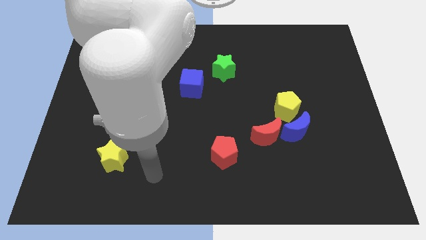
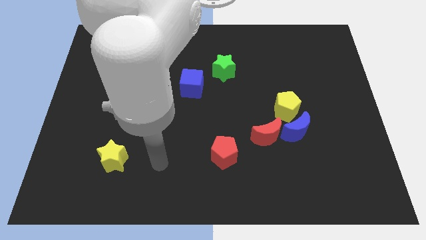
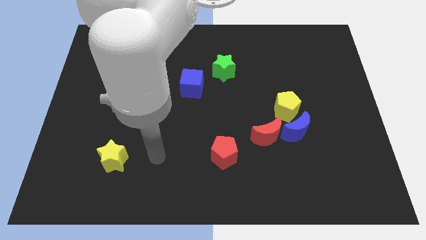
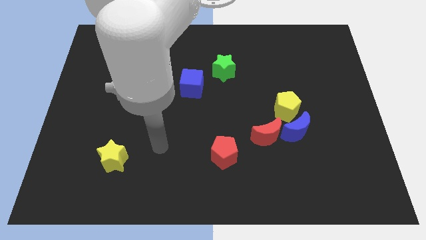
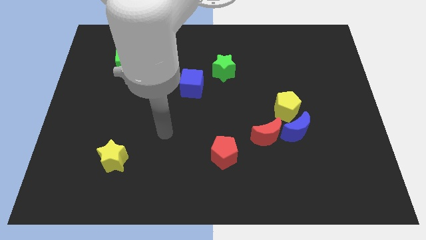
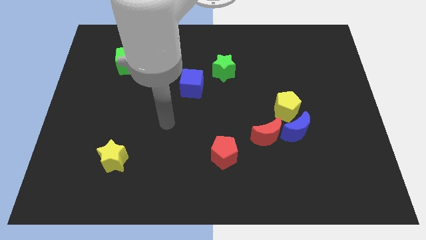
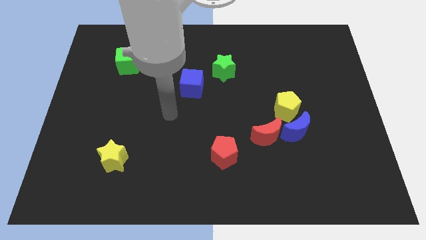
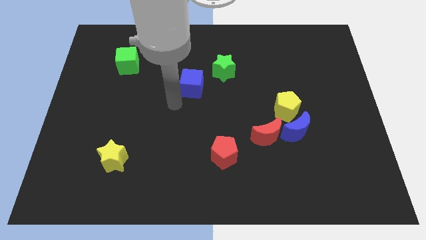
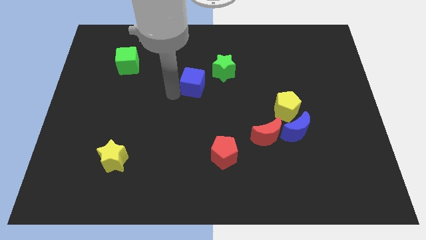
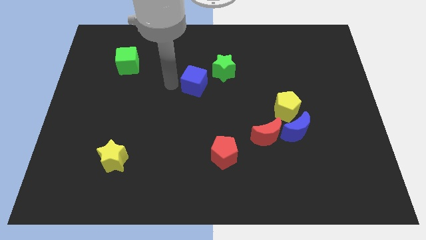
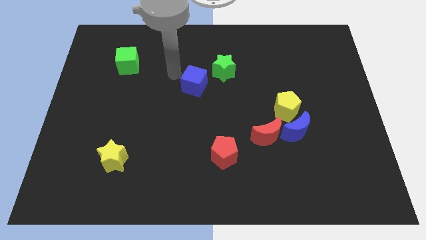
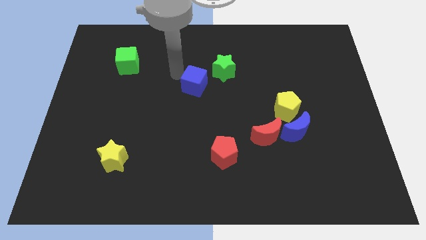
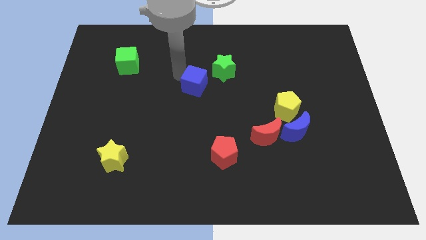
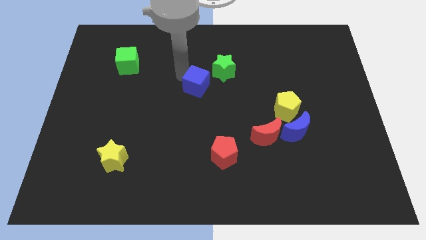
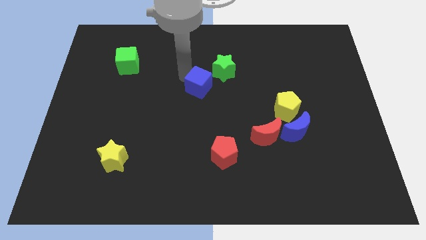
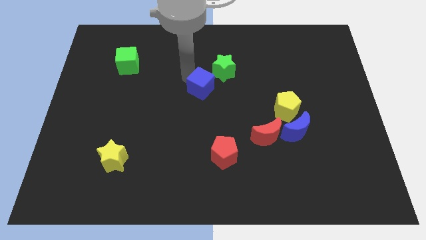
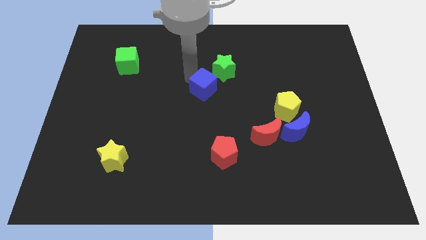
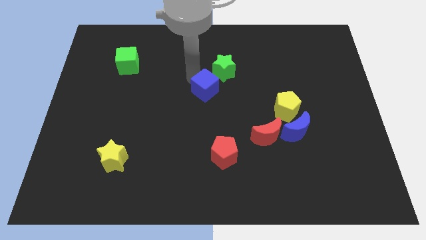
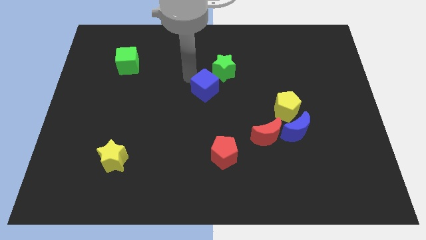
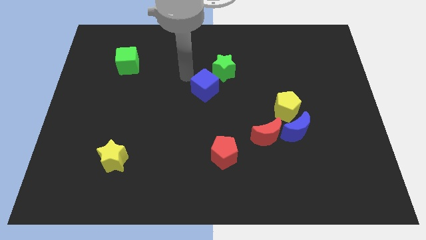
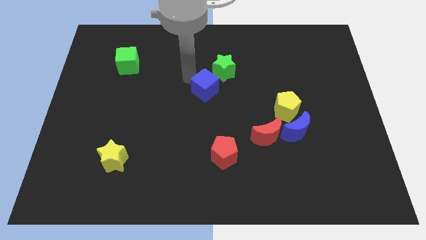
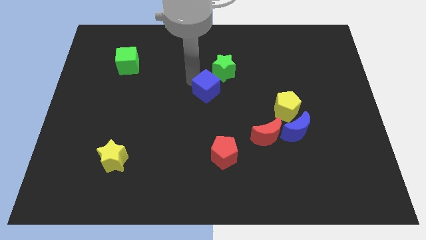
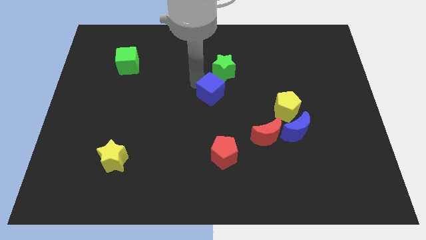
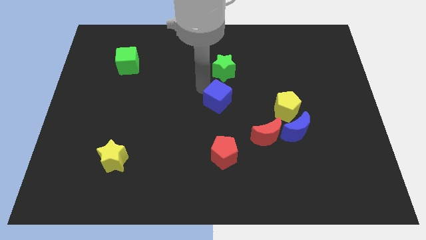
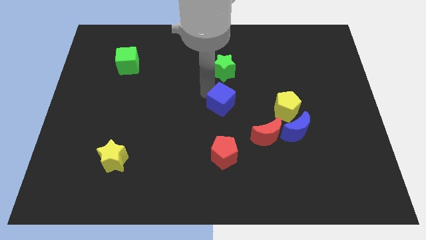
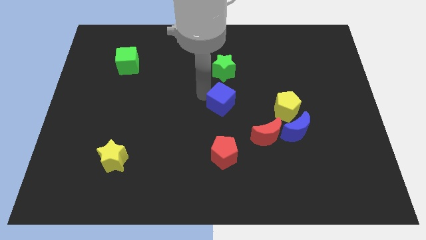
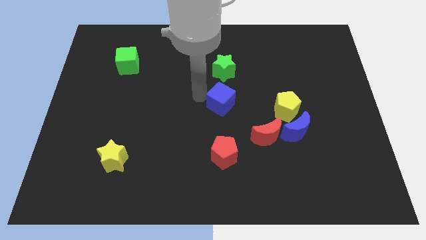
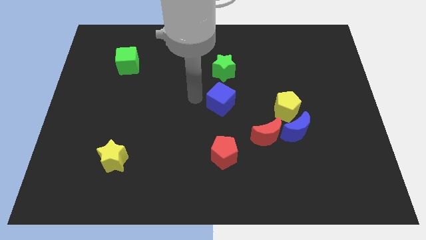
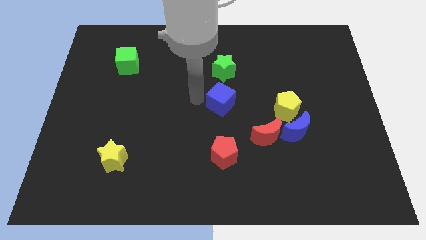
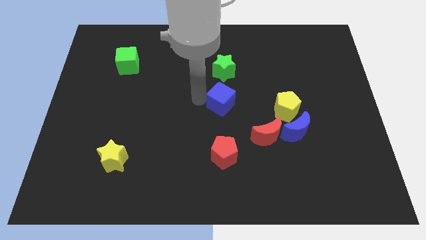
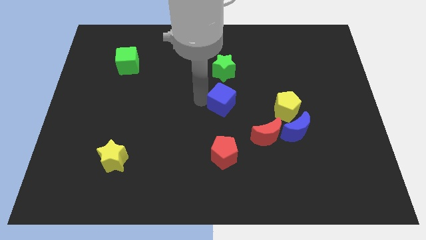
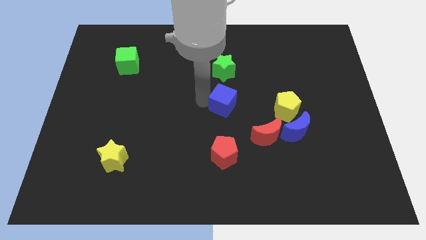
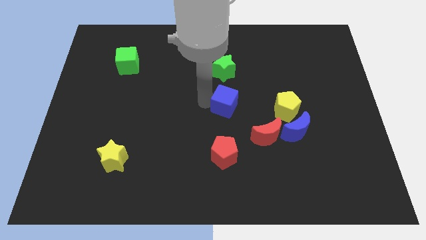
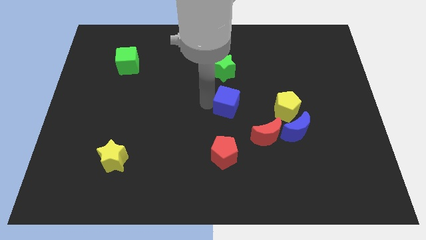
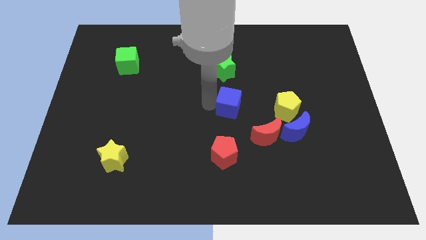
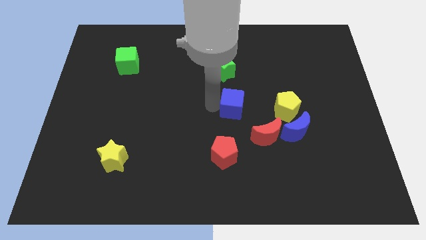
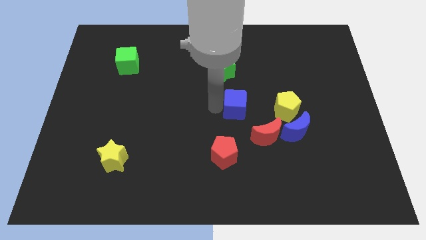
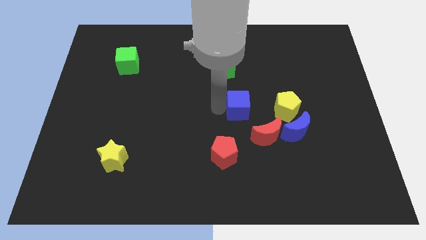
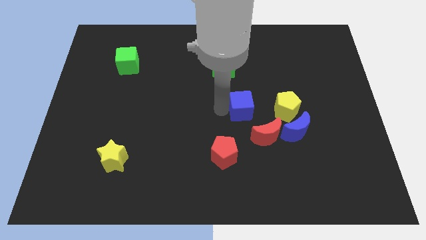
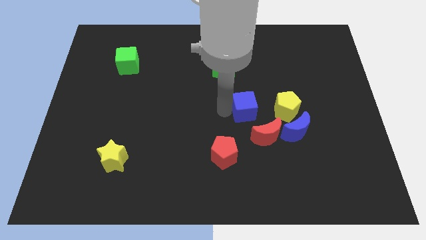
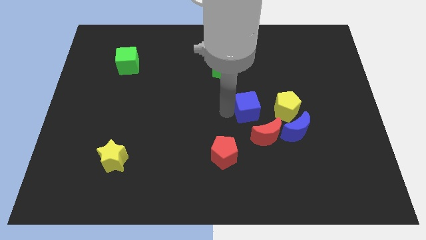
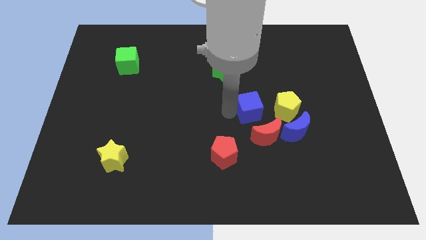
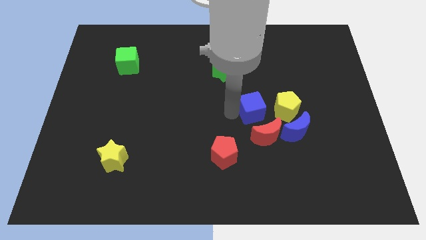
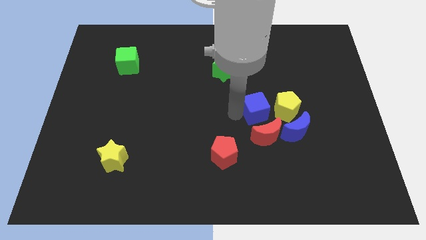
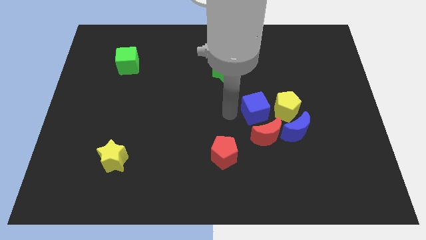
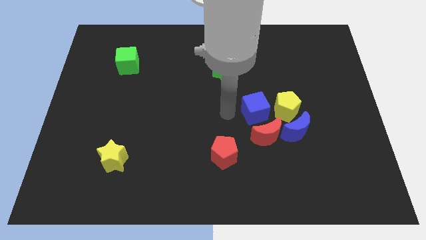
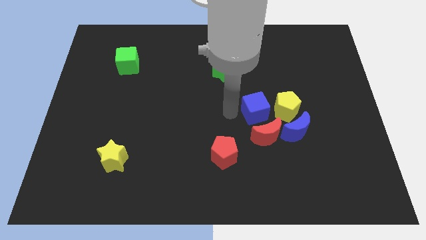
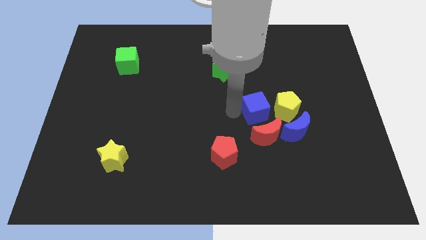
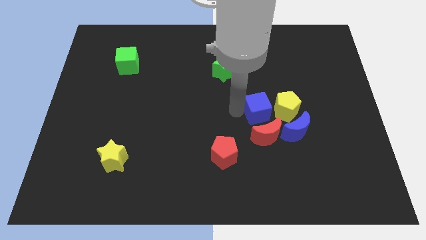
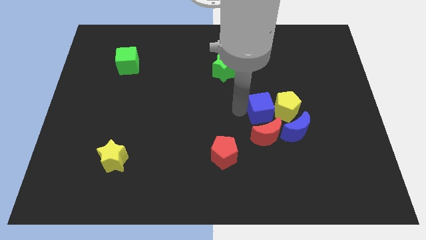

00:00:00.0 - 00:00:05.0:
put the blue cube close to the yellow pentagon

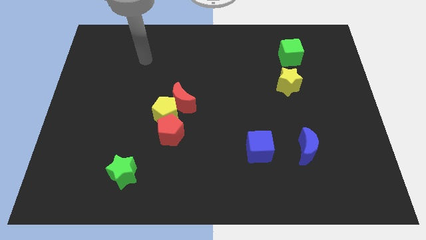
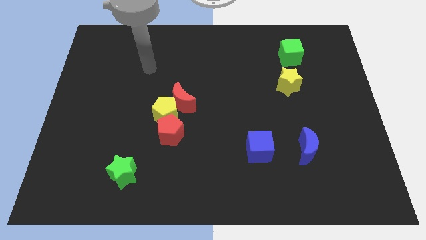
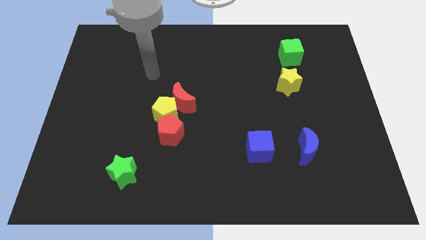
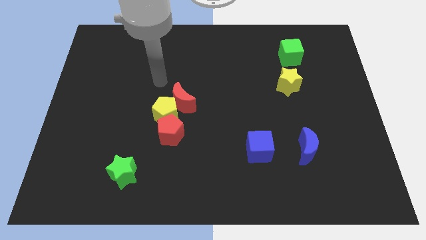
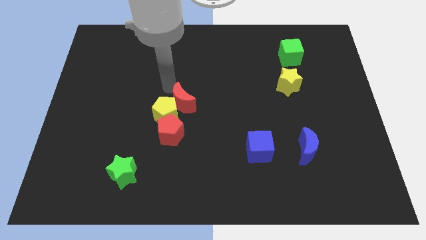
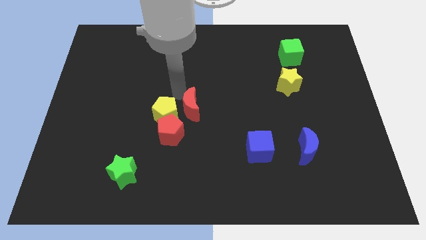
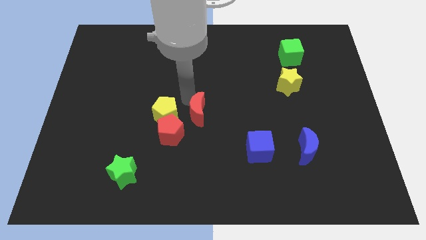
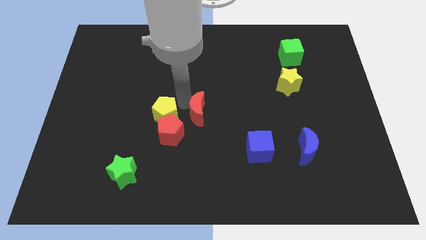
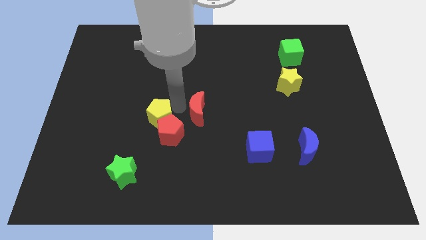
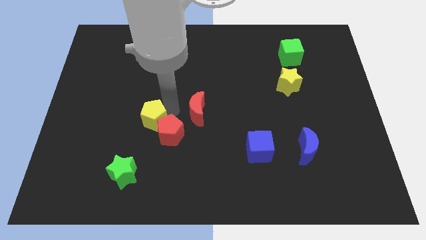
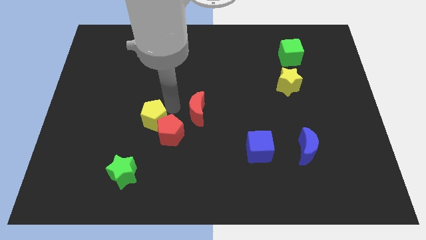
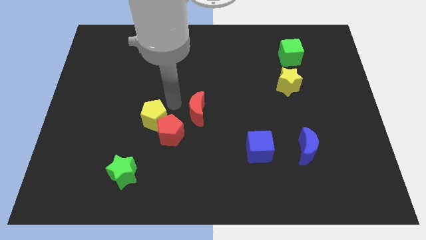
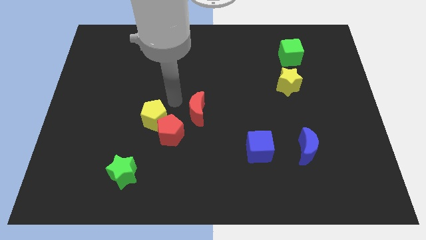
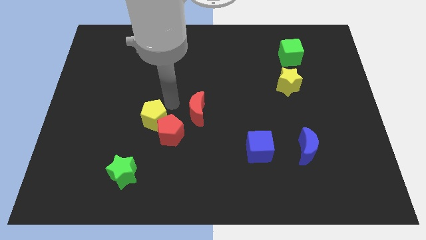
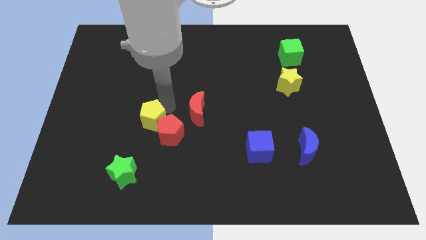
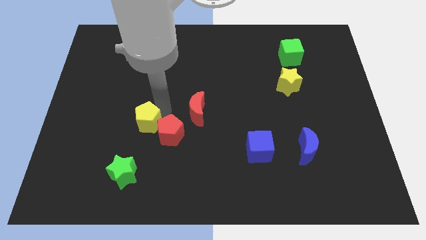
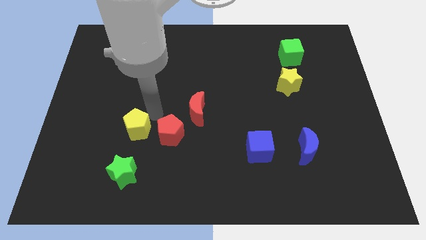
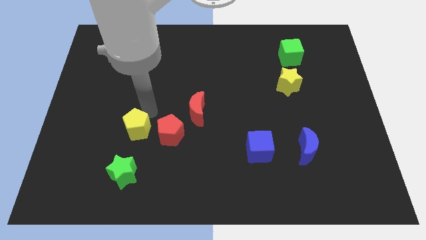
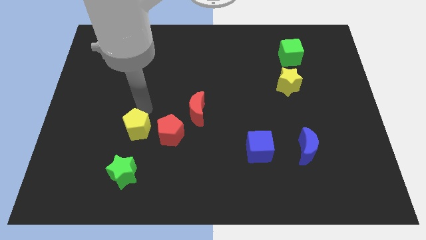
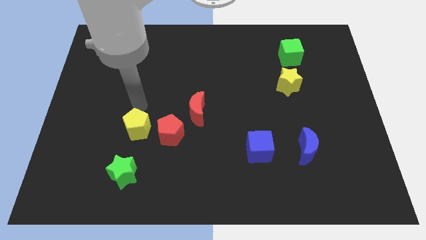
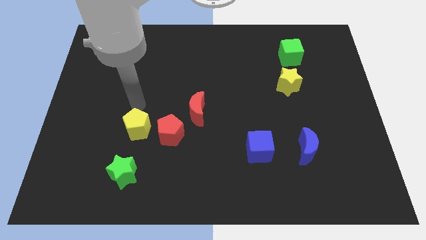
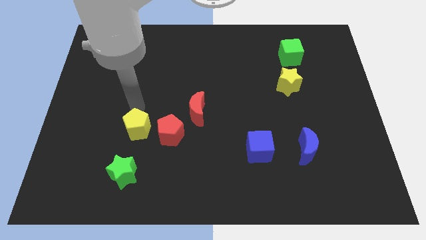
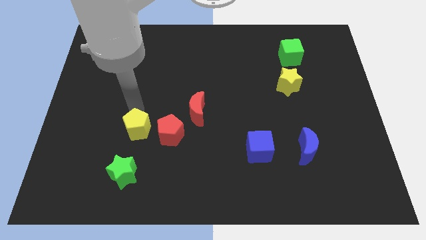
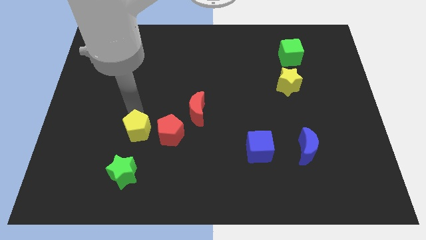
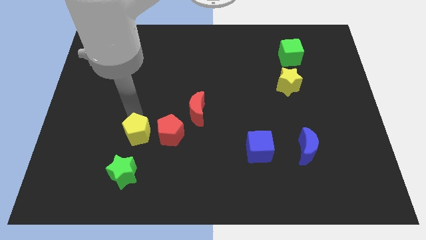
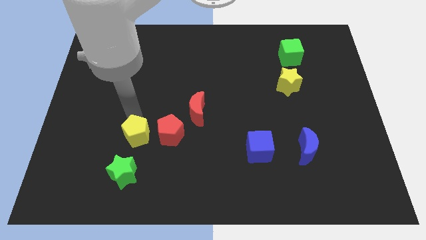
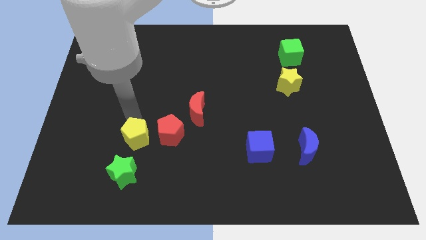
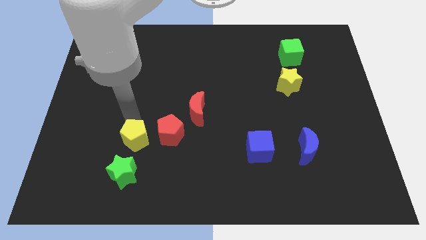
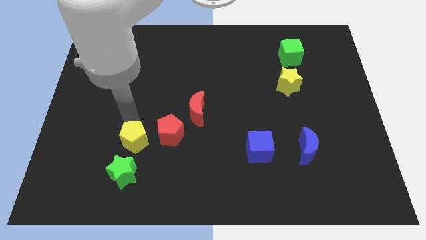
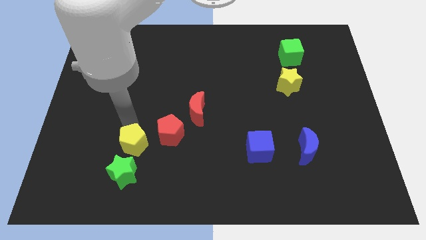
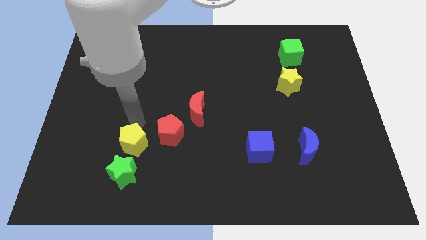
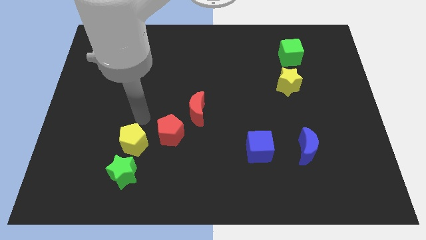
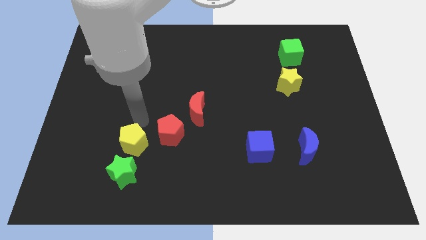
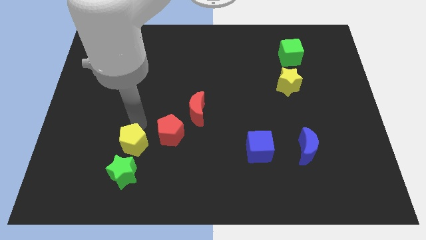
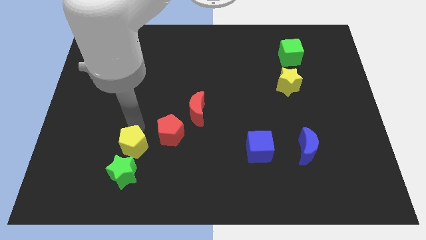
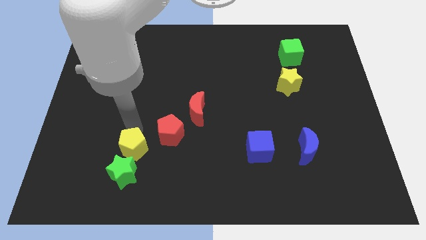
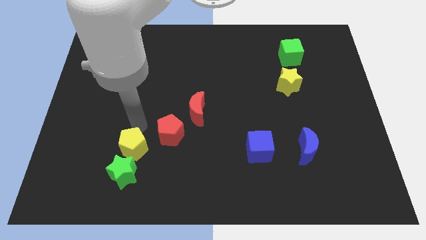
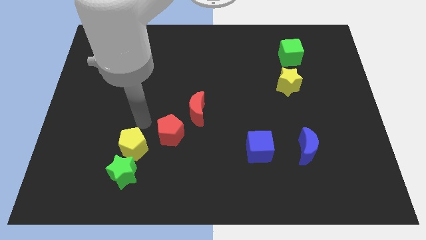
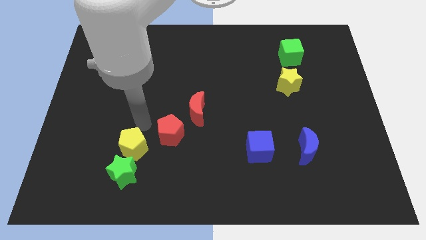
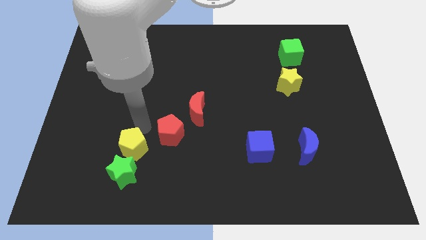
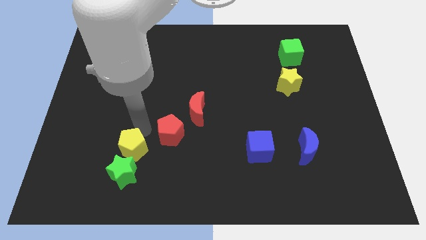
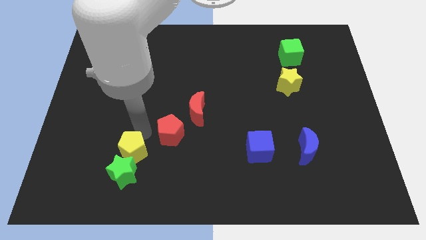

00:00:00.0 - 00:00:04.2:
put the yellow pentagon towards the green star
